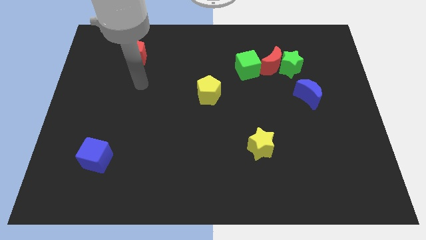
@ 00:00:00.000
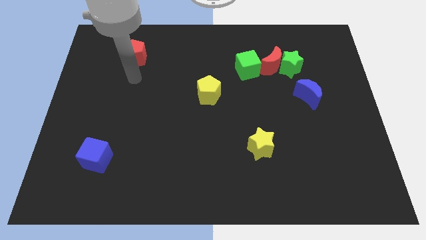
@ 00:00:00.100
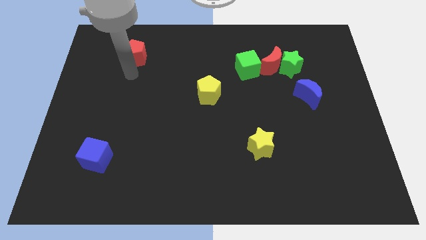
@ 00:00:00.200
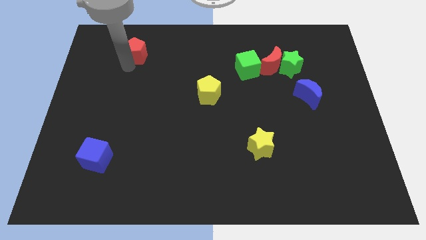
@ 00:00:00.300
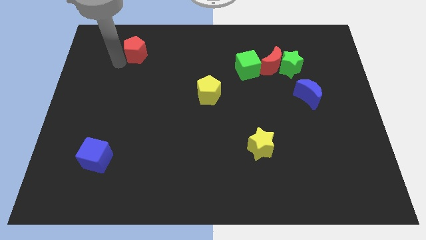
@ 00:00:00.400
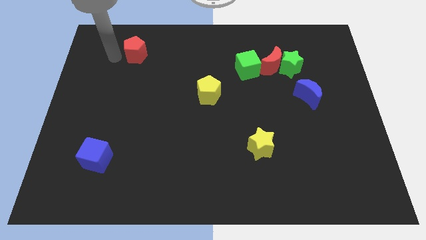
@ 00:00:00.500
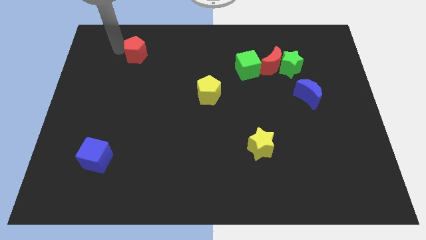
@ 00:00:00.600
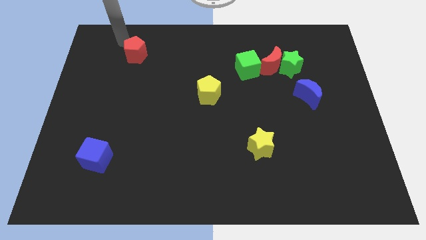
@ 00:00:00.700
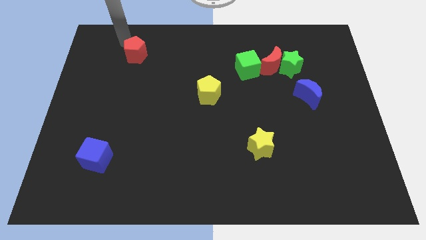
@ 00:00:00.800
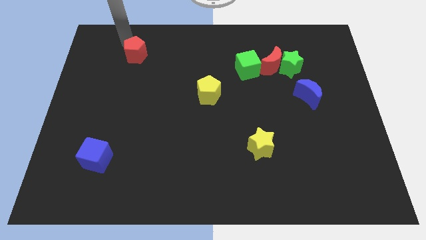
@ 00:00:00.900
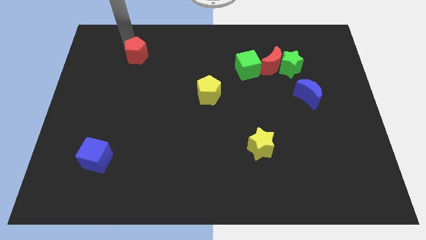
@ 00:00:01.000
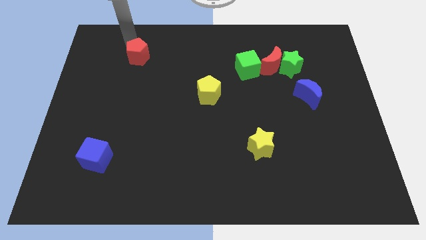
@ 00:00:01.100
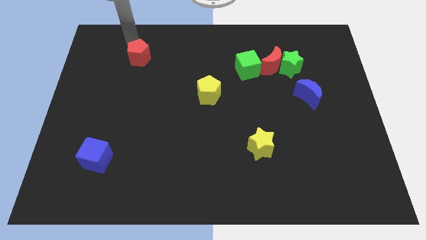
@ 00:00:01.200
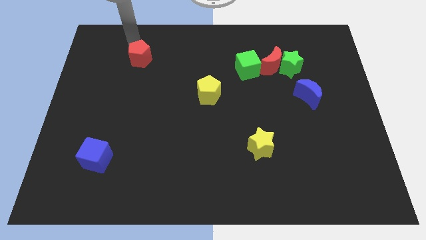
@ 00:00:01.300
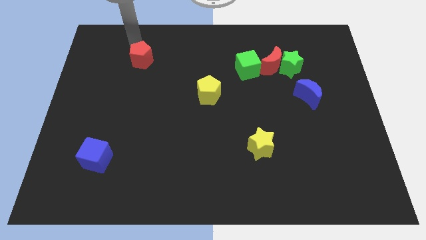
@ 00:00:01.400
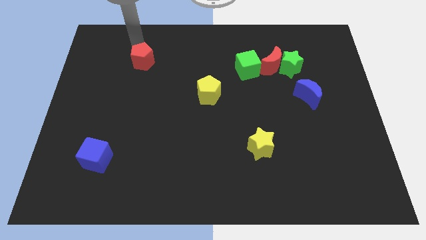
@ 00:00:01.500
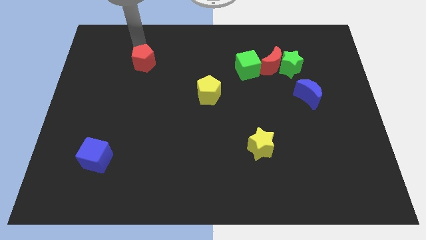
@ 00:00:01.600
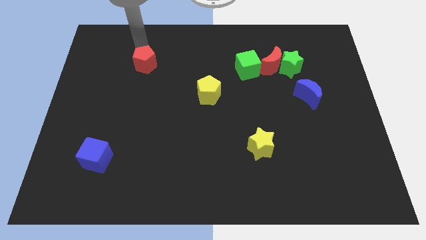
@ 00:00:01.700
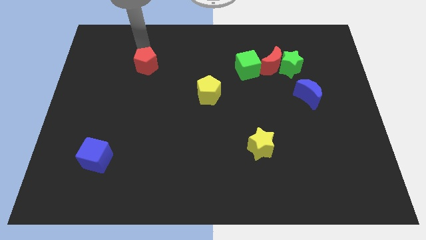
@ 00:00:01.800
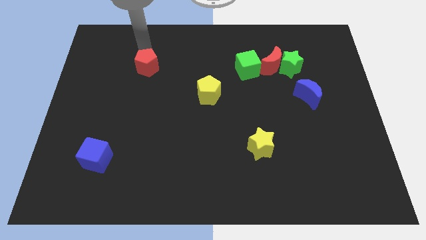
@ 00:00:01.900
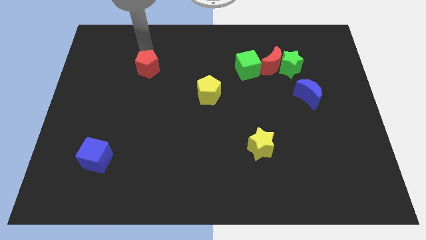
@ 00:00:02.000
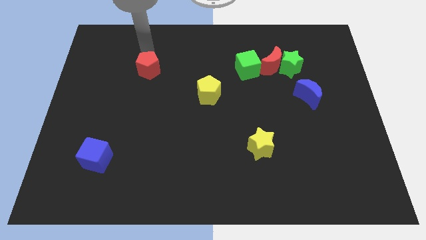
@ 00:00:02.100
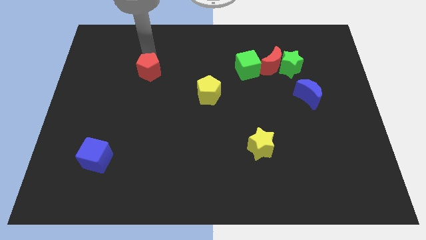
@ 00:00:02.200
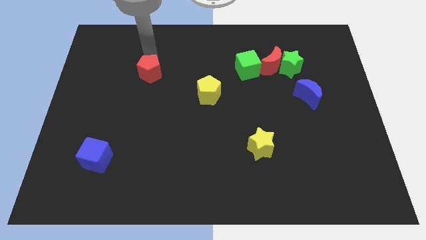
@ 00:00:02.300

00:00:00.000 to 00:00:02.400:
move the red pentagon a little diagonally downwards and right

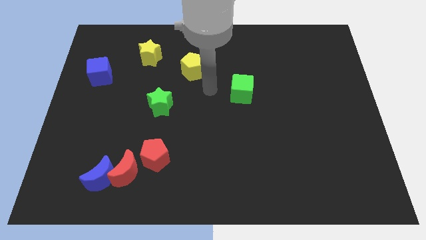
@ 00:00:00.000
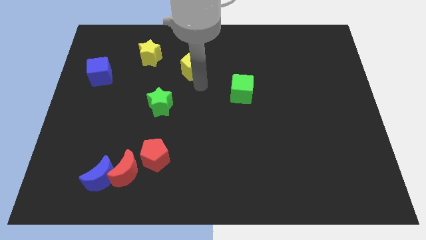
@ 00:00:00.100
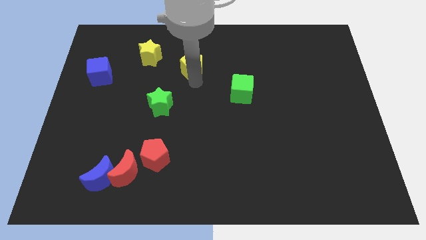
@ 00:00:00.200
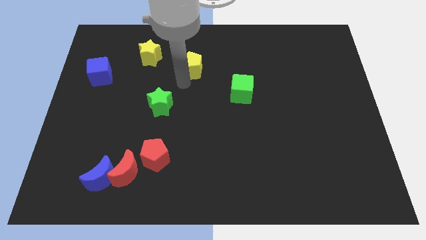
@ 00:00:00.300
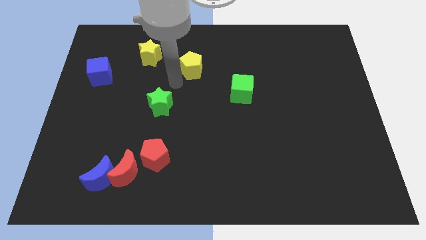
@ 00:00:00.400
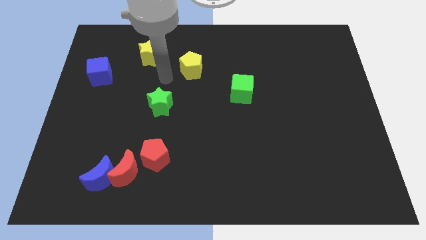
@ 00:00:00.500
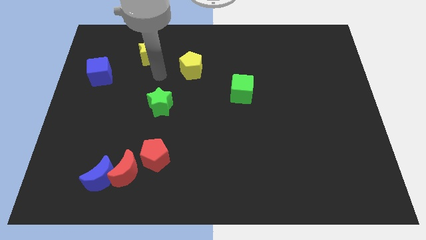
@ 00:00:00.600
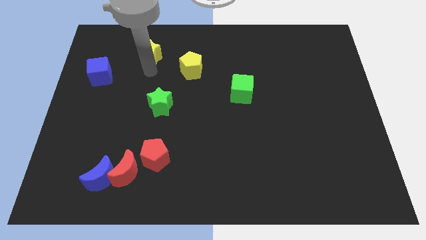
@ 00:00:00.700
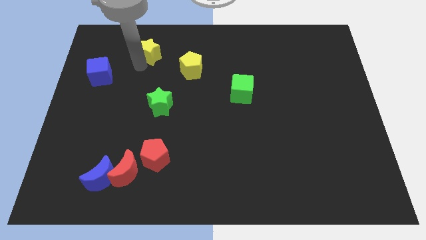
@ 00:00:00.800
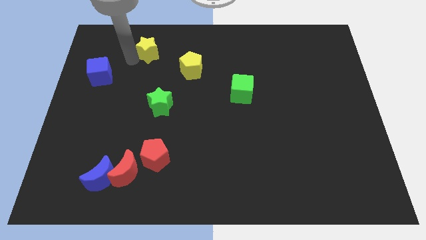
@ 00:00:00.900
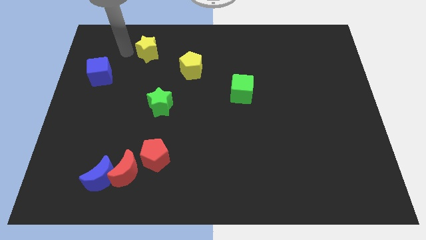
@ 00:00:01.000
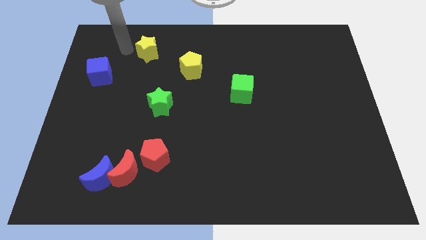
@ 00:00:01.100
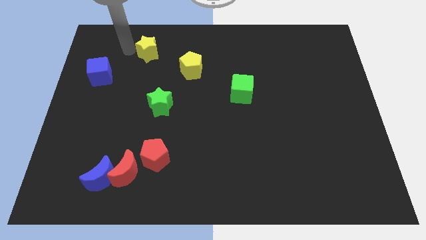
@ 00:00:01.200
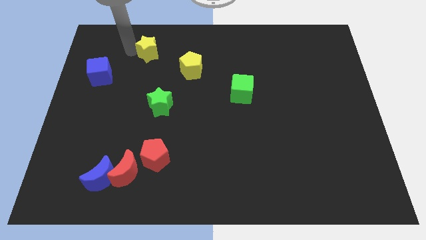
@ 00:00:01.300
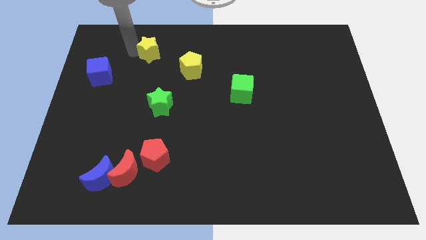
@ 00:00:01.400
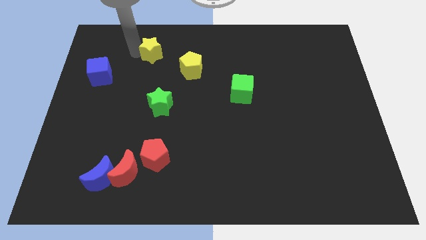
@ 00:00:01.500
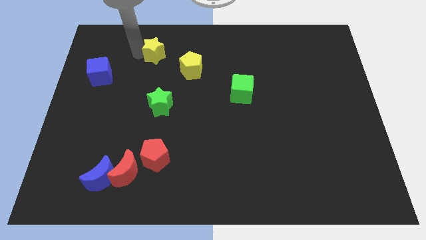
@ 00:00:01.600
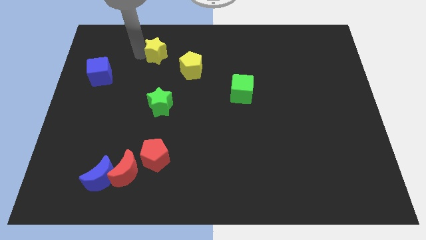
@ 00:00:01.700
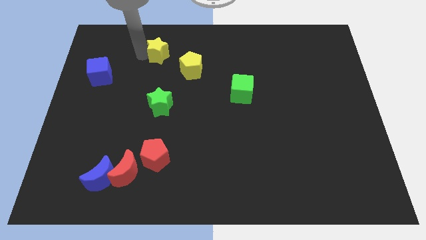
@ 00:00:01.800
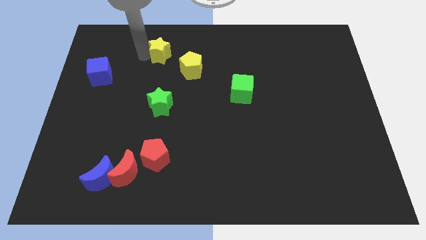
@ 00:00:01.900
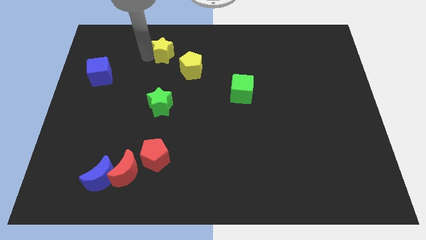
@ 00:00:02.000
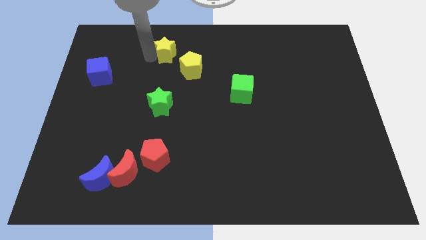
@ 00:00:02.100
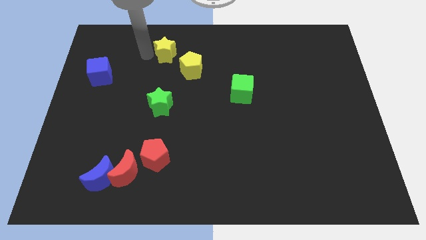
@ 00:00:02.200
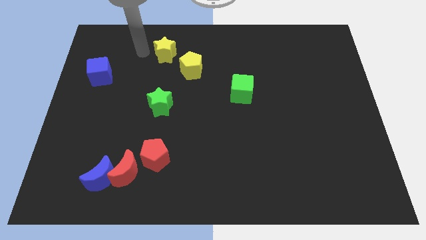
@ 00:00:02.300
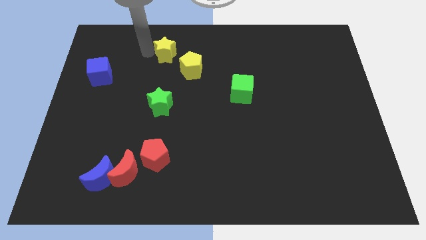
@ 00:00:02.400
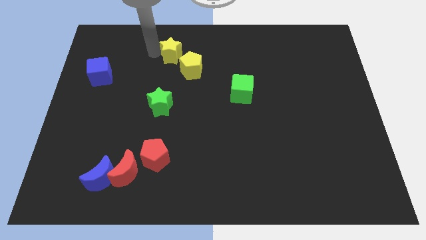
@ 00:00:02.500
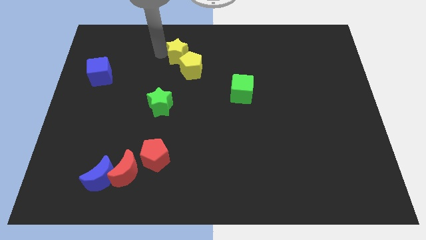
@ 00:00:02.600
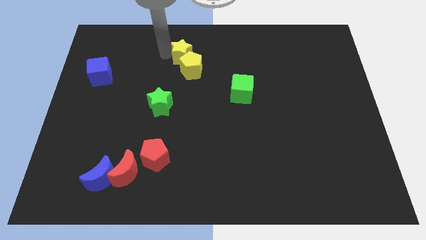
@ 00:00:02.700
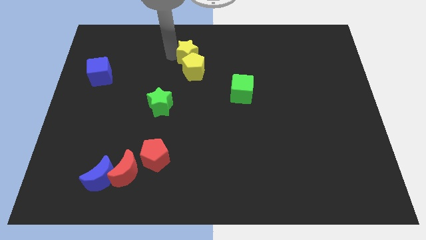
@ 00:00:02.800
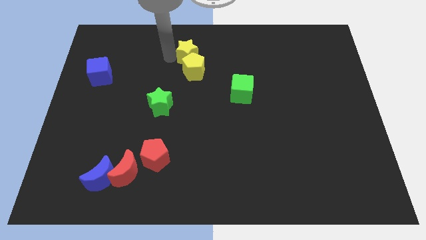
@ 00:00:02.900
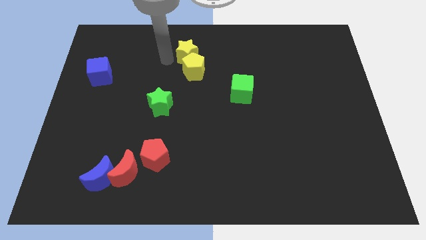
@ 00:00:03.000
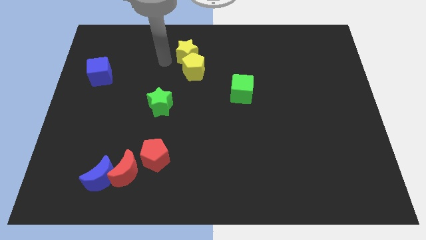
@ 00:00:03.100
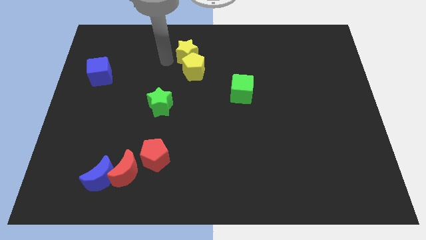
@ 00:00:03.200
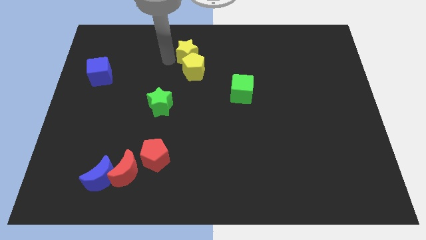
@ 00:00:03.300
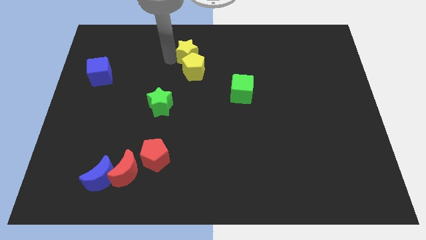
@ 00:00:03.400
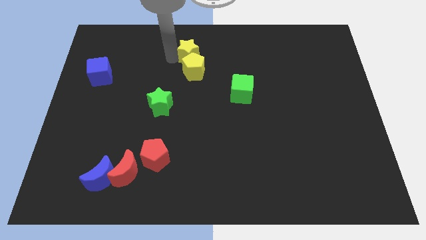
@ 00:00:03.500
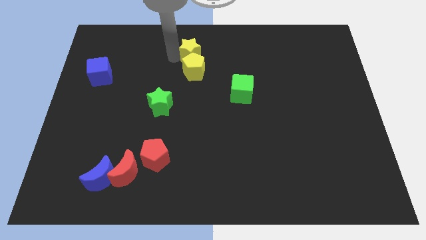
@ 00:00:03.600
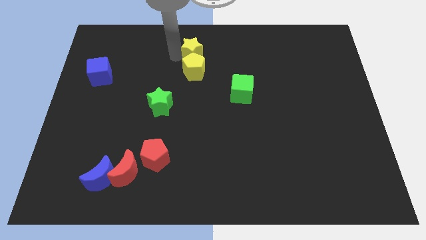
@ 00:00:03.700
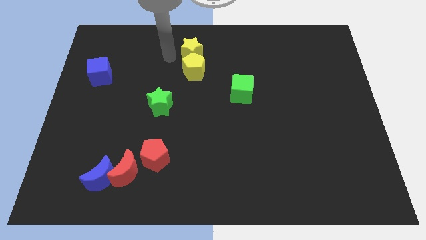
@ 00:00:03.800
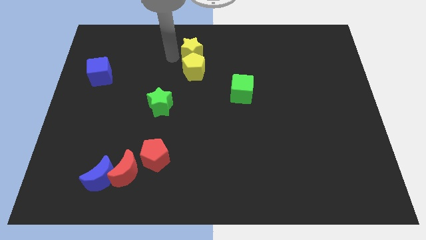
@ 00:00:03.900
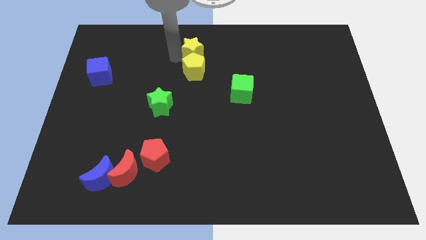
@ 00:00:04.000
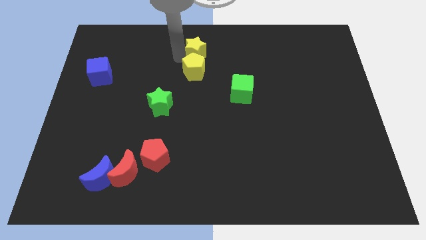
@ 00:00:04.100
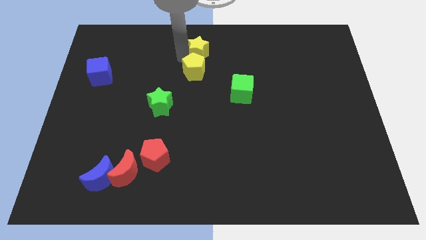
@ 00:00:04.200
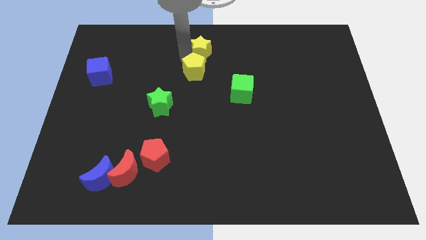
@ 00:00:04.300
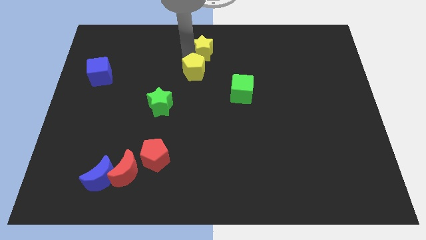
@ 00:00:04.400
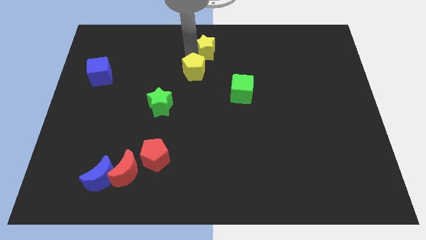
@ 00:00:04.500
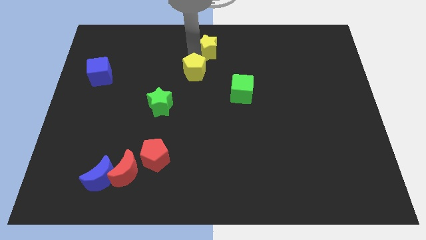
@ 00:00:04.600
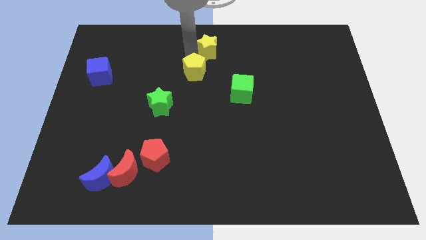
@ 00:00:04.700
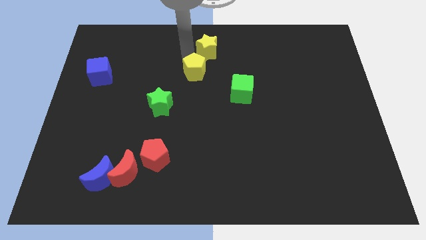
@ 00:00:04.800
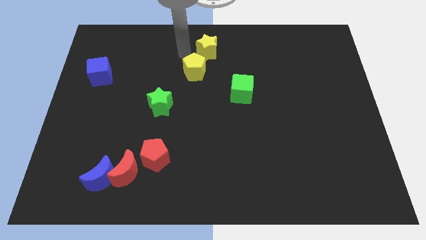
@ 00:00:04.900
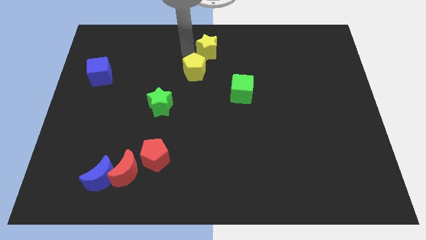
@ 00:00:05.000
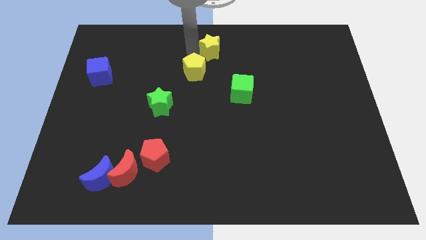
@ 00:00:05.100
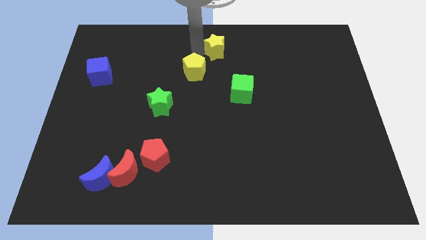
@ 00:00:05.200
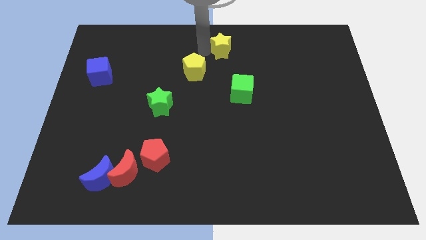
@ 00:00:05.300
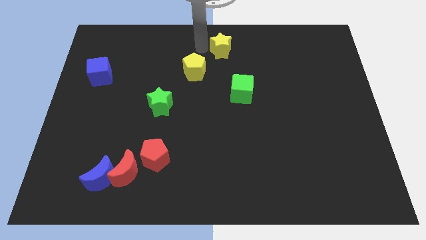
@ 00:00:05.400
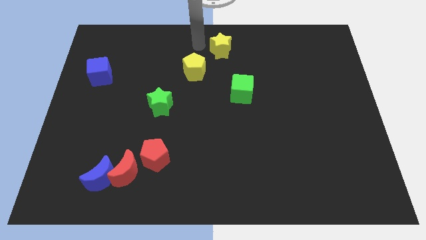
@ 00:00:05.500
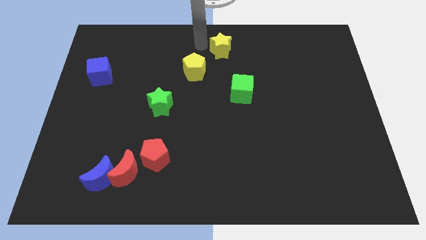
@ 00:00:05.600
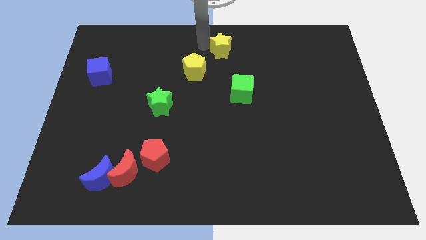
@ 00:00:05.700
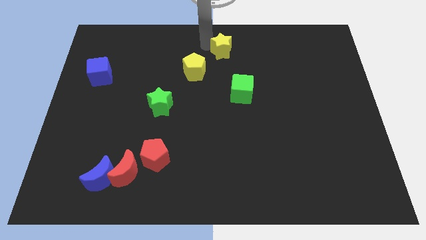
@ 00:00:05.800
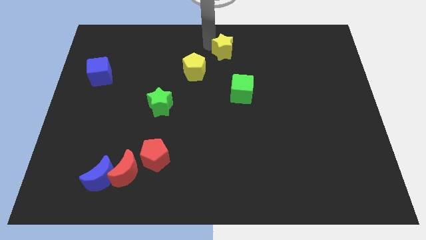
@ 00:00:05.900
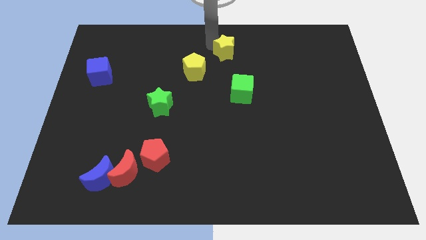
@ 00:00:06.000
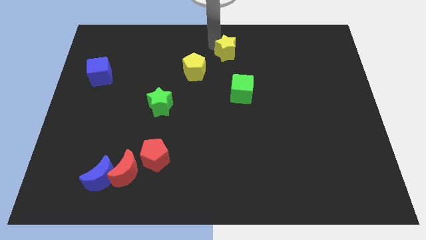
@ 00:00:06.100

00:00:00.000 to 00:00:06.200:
push the yellow star right
